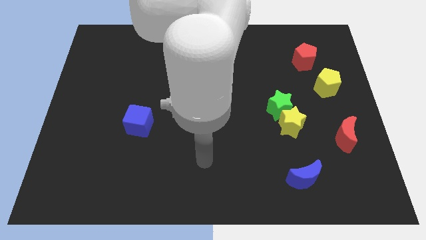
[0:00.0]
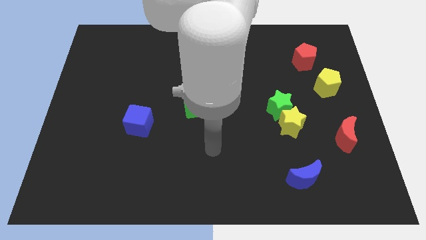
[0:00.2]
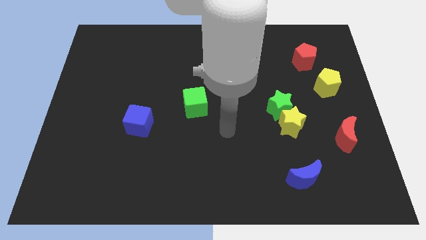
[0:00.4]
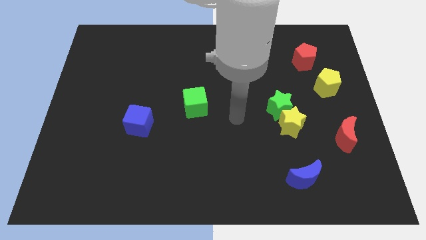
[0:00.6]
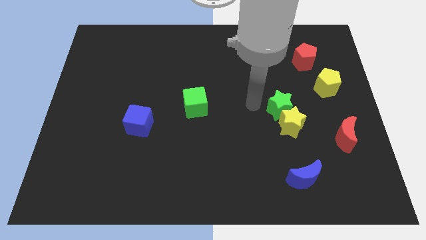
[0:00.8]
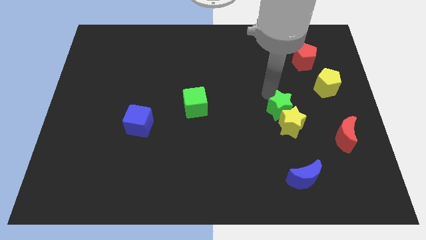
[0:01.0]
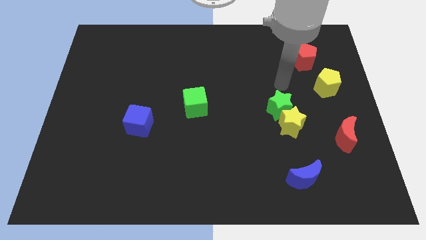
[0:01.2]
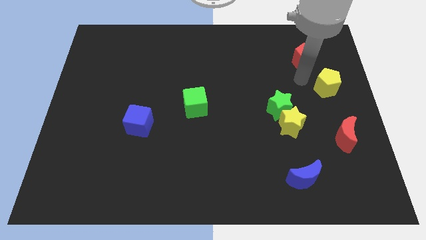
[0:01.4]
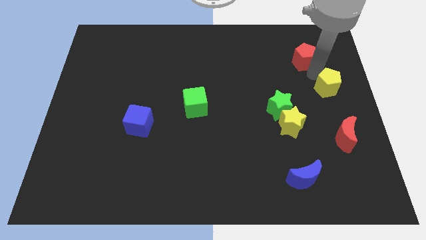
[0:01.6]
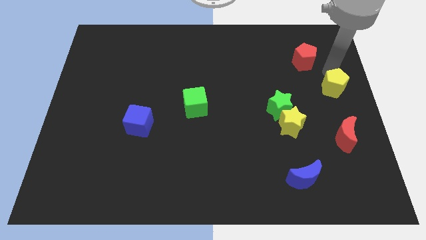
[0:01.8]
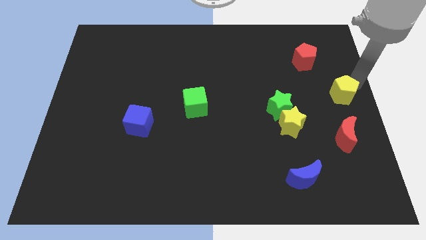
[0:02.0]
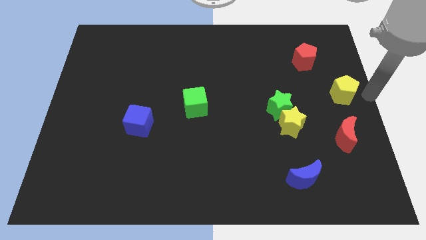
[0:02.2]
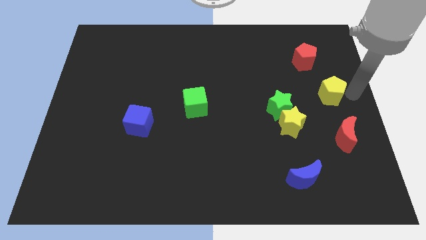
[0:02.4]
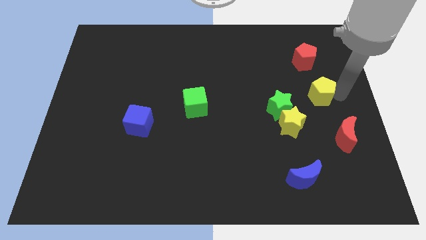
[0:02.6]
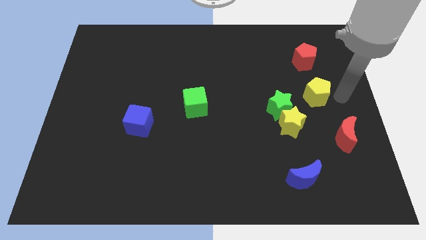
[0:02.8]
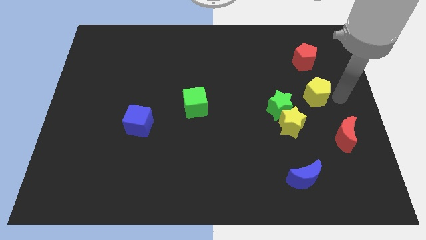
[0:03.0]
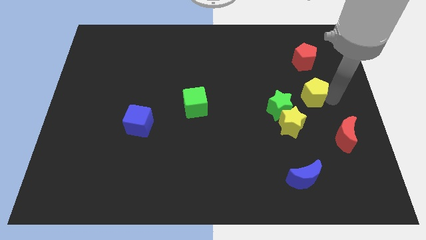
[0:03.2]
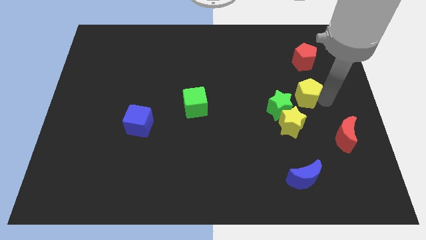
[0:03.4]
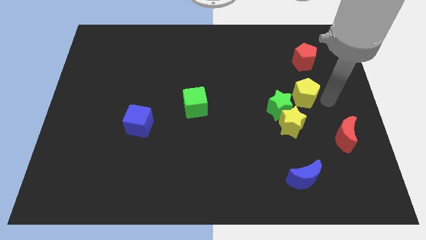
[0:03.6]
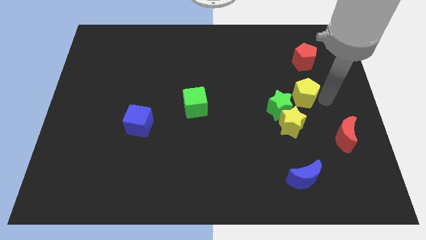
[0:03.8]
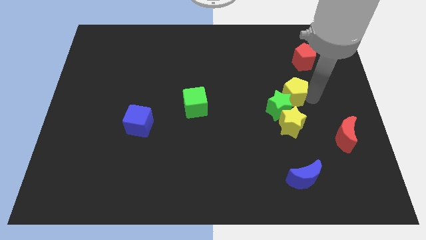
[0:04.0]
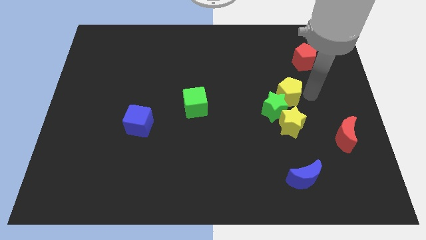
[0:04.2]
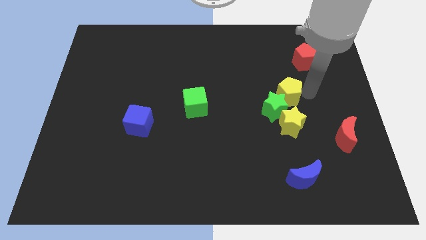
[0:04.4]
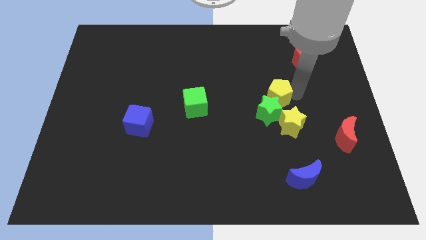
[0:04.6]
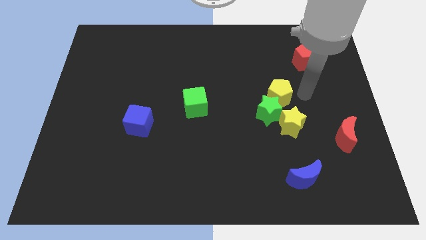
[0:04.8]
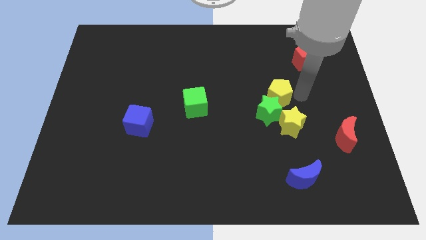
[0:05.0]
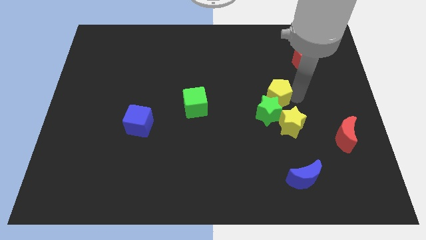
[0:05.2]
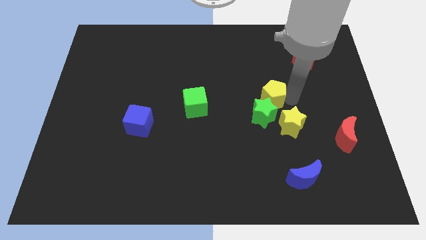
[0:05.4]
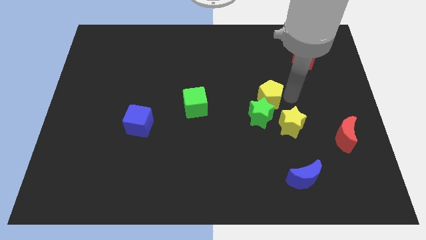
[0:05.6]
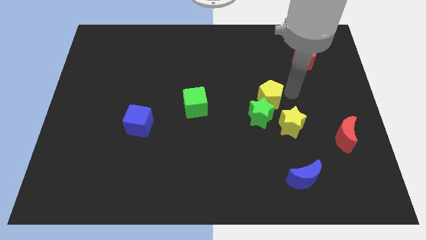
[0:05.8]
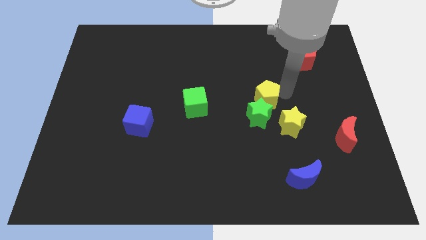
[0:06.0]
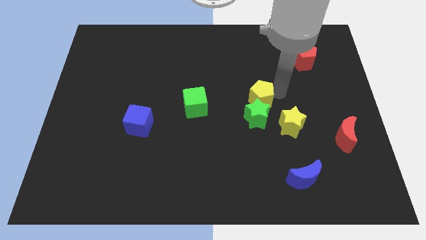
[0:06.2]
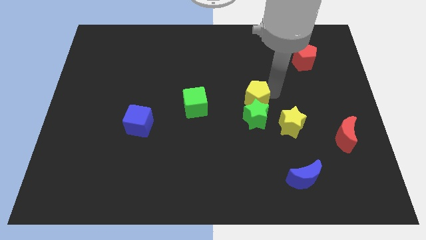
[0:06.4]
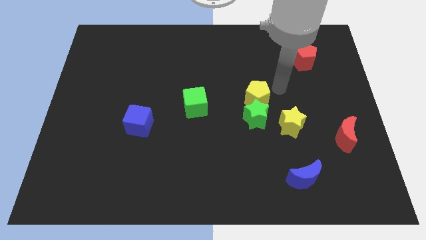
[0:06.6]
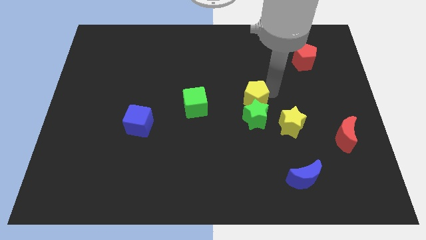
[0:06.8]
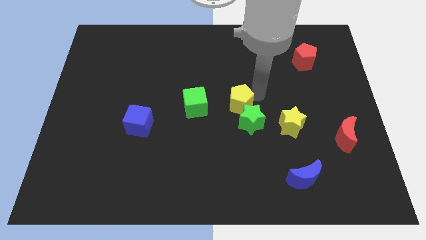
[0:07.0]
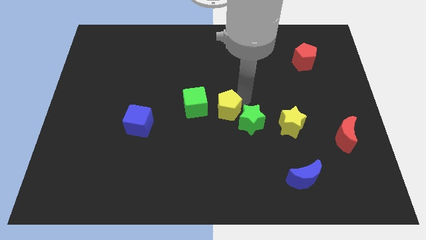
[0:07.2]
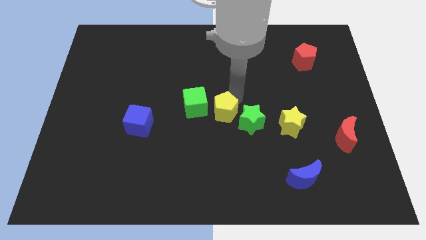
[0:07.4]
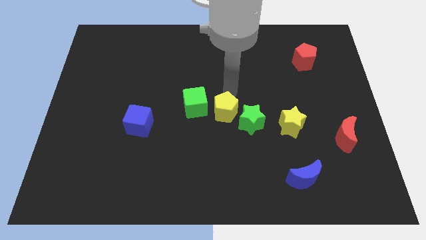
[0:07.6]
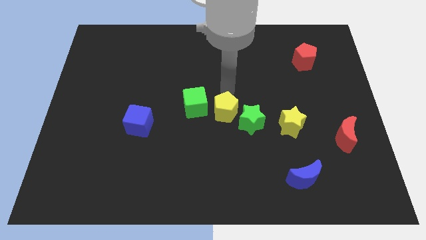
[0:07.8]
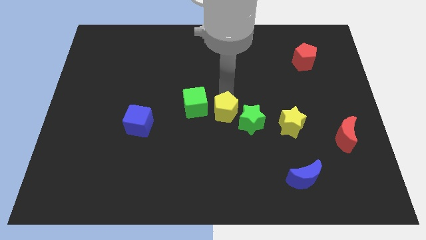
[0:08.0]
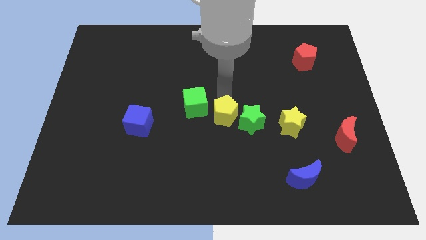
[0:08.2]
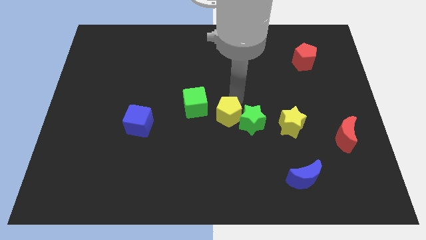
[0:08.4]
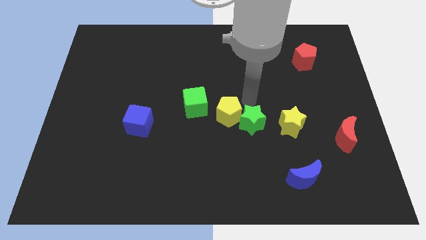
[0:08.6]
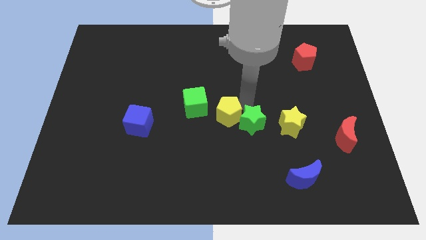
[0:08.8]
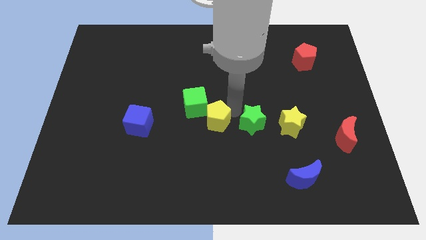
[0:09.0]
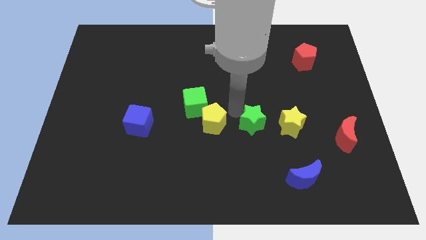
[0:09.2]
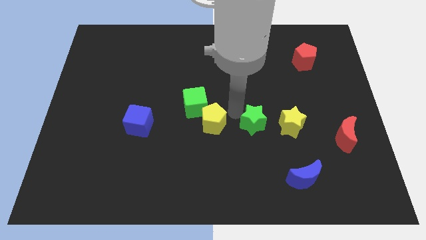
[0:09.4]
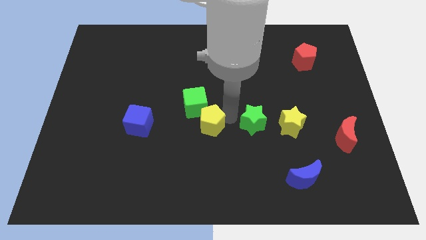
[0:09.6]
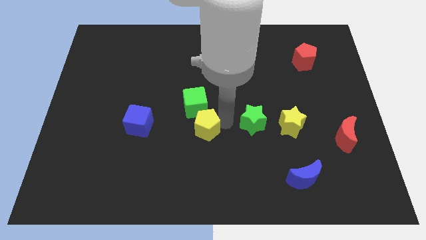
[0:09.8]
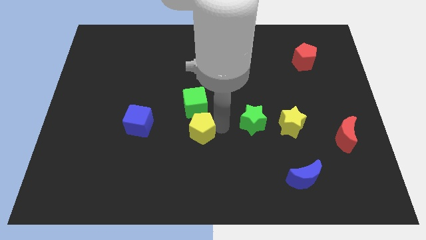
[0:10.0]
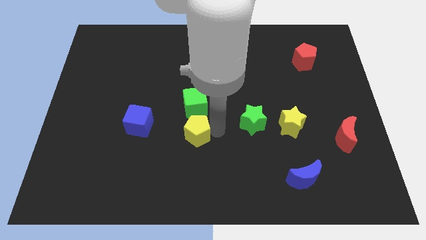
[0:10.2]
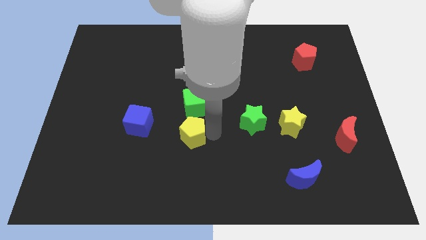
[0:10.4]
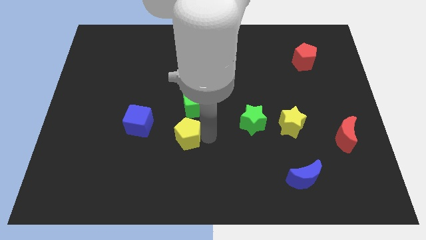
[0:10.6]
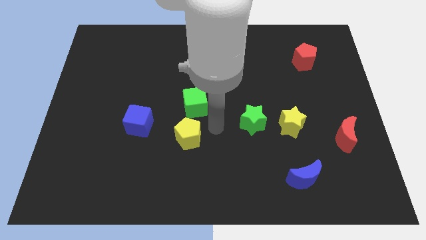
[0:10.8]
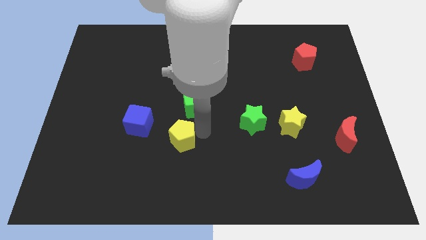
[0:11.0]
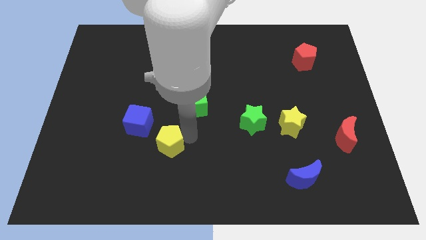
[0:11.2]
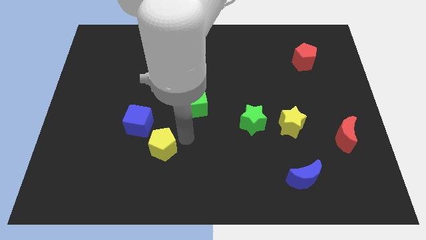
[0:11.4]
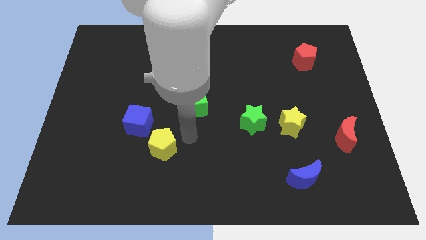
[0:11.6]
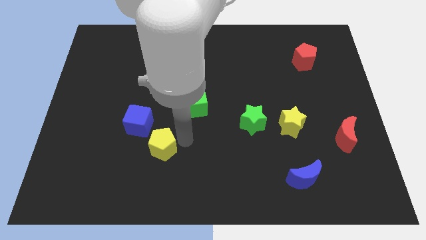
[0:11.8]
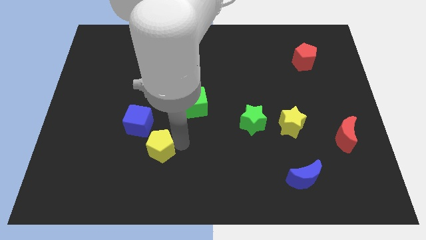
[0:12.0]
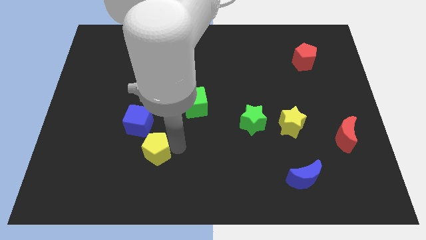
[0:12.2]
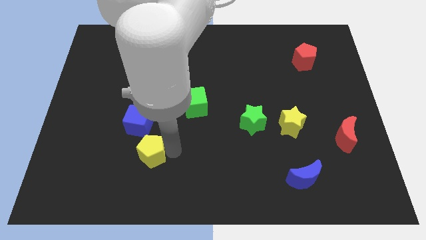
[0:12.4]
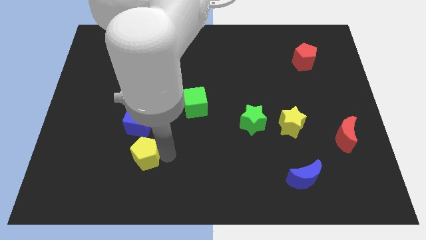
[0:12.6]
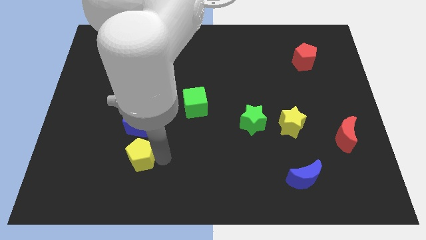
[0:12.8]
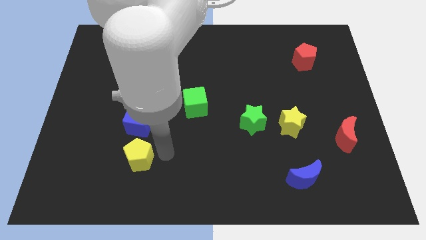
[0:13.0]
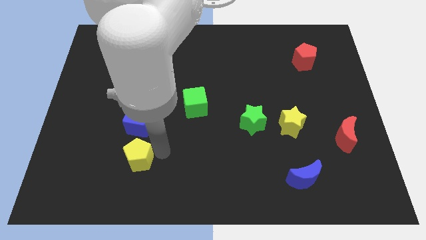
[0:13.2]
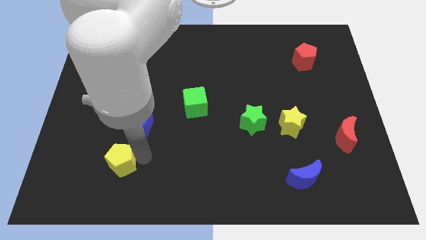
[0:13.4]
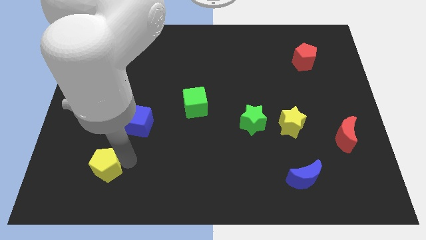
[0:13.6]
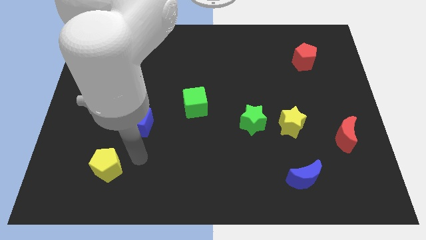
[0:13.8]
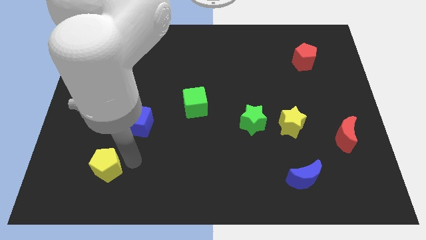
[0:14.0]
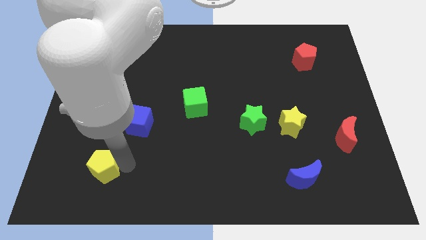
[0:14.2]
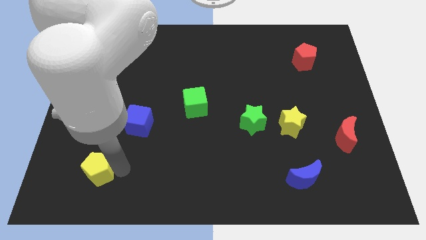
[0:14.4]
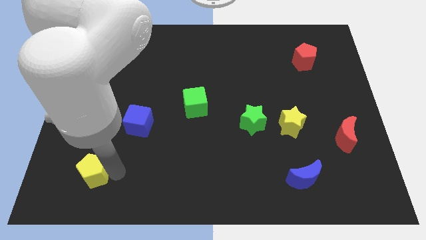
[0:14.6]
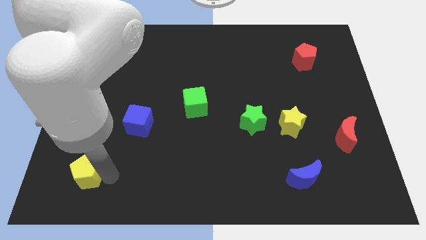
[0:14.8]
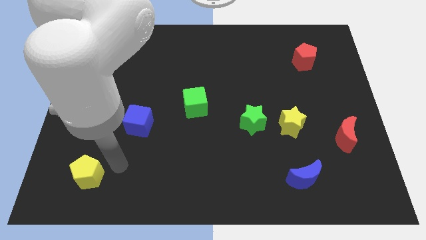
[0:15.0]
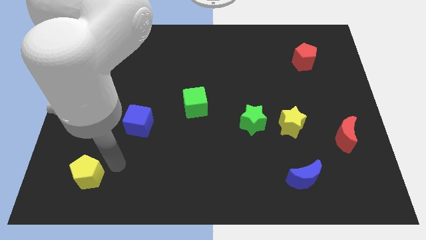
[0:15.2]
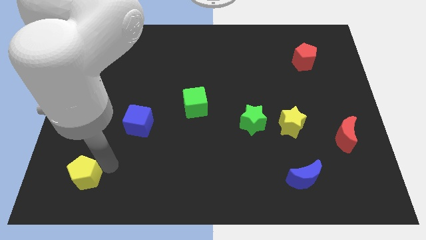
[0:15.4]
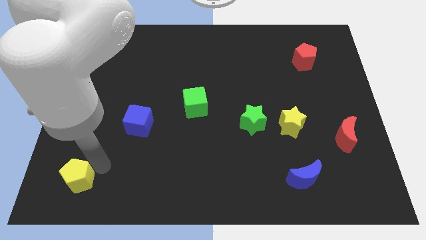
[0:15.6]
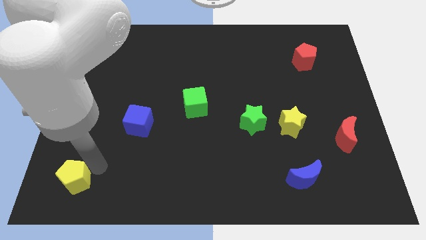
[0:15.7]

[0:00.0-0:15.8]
put the yellow pentagon to the bottom left of the board
